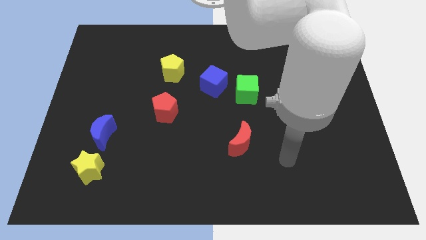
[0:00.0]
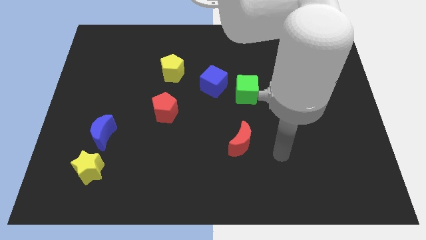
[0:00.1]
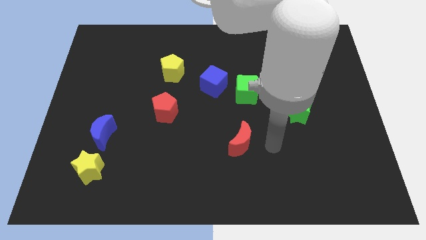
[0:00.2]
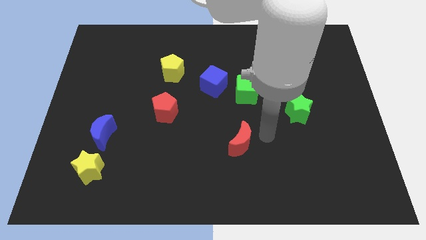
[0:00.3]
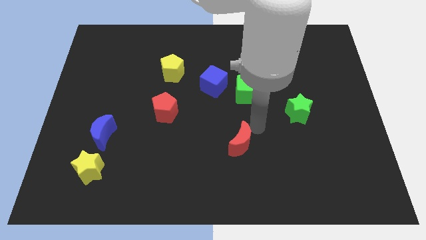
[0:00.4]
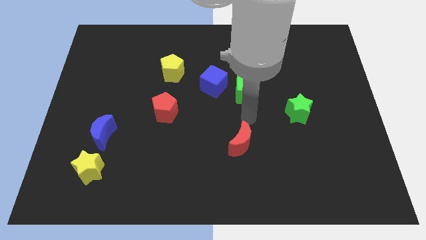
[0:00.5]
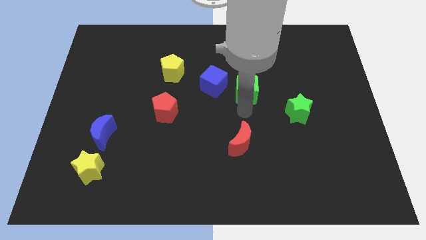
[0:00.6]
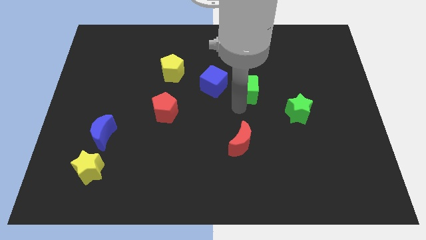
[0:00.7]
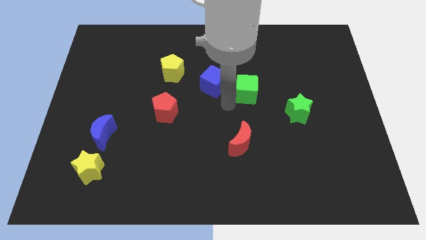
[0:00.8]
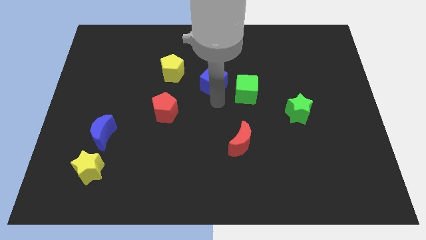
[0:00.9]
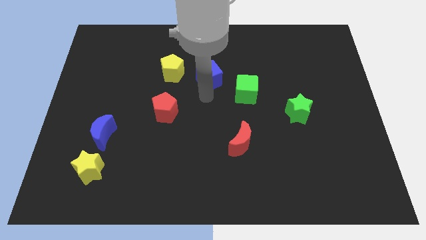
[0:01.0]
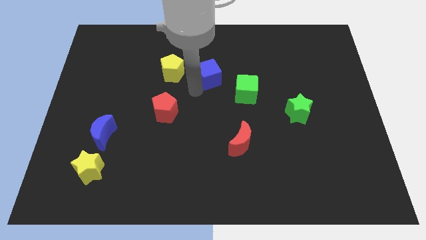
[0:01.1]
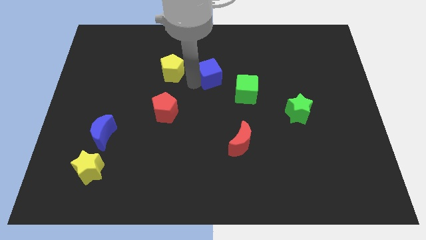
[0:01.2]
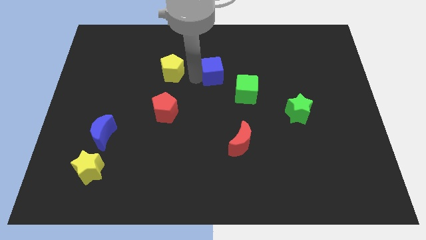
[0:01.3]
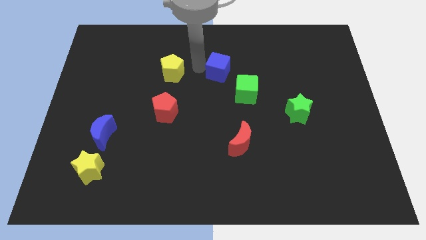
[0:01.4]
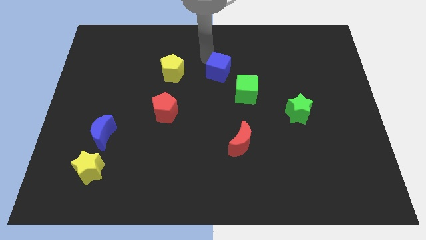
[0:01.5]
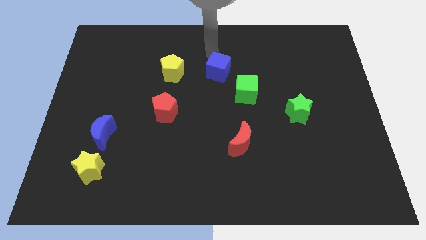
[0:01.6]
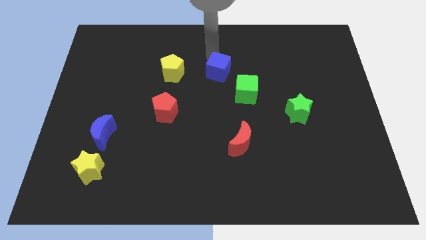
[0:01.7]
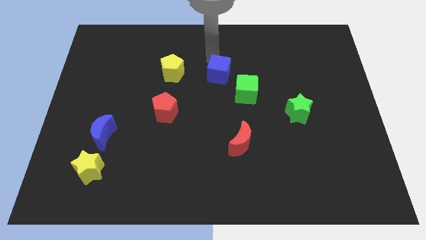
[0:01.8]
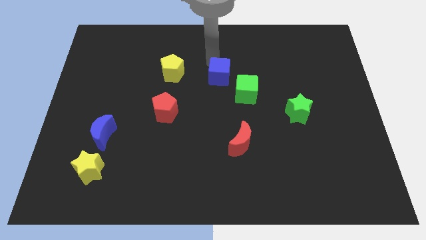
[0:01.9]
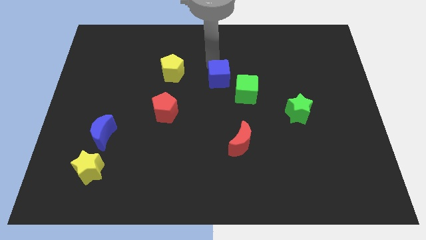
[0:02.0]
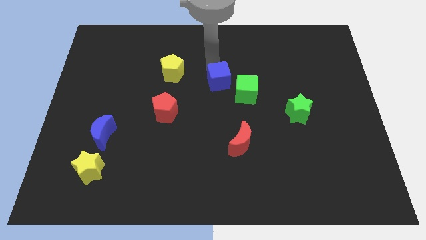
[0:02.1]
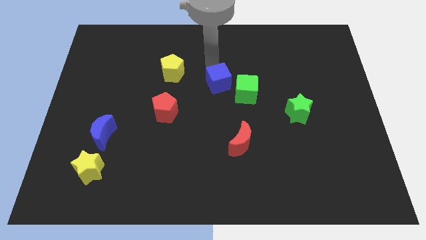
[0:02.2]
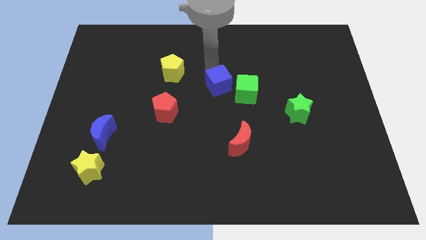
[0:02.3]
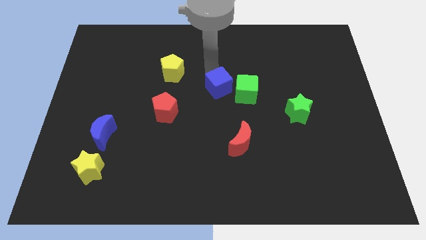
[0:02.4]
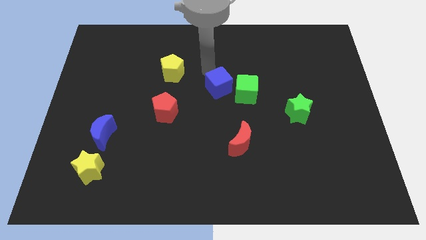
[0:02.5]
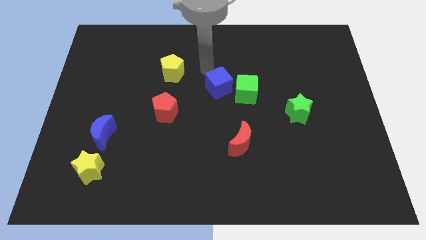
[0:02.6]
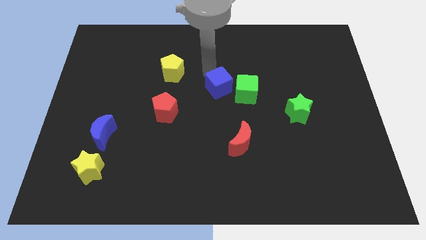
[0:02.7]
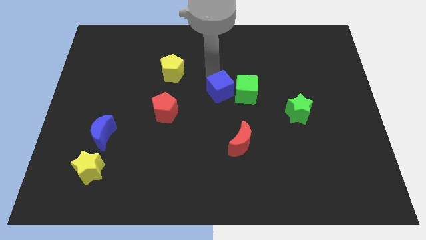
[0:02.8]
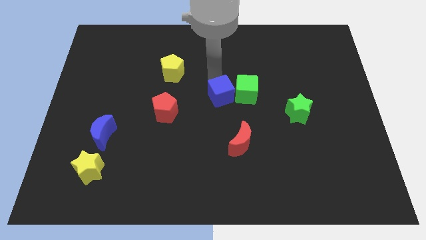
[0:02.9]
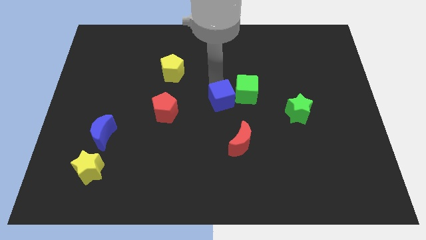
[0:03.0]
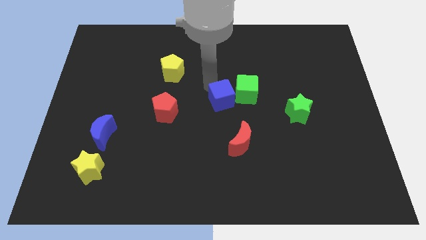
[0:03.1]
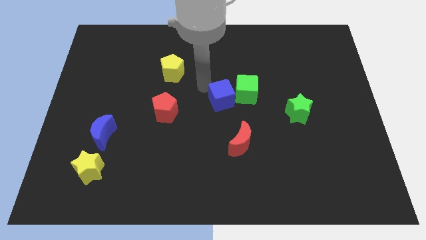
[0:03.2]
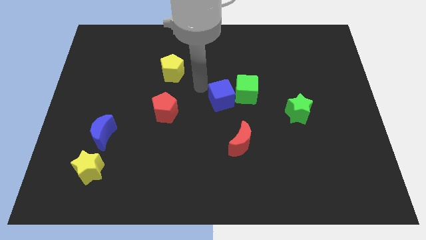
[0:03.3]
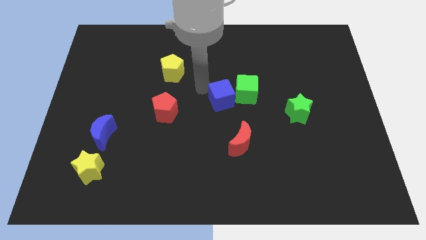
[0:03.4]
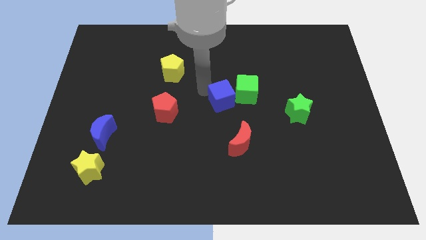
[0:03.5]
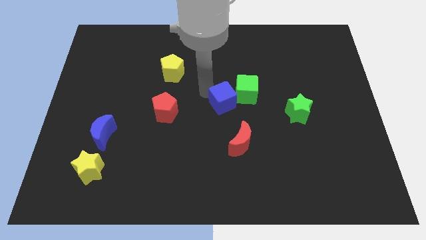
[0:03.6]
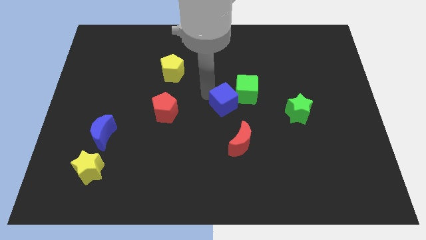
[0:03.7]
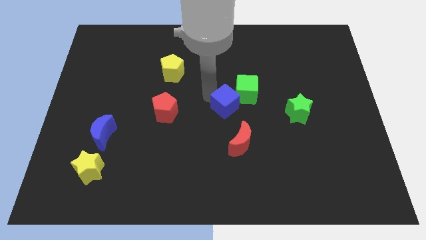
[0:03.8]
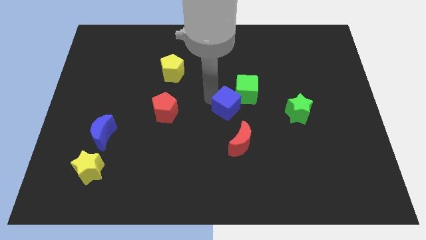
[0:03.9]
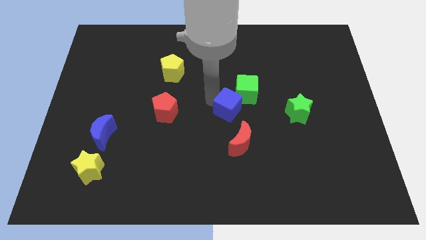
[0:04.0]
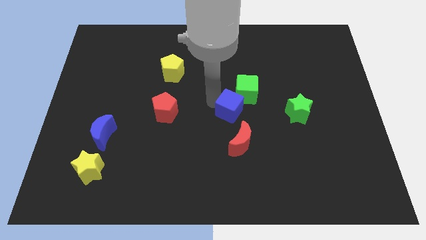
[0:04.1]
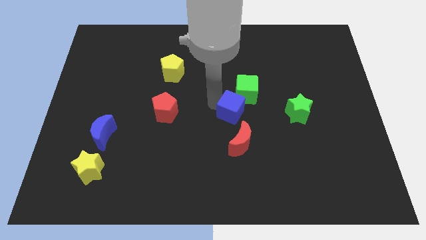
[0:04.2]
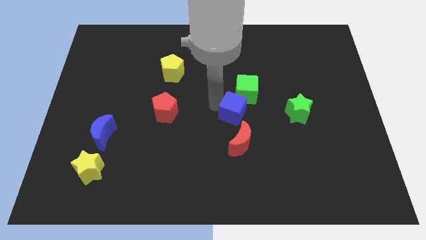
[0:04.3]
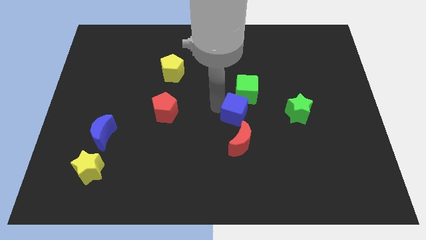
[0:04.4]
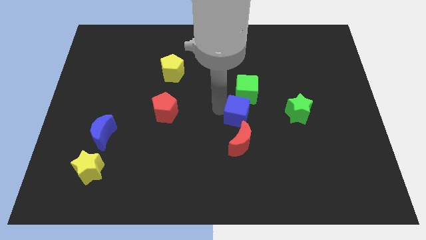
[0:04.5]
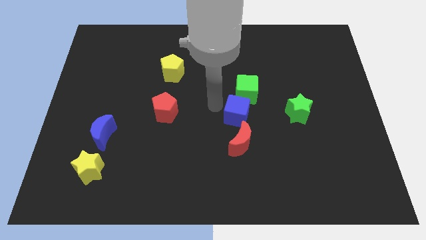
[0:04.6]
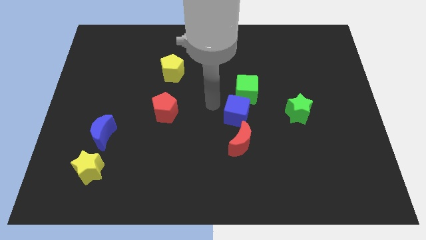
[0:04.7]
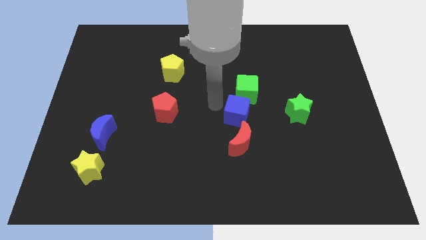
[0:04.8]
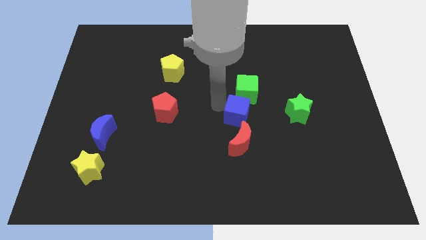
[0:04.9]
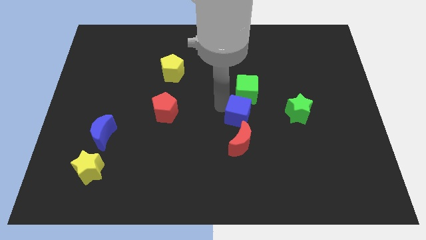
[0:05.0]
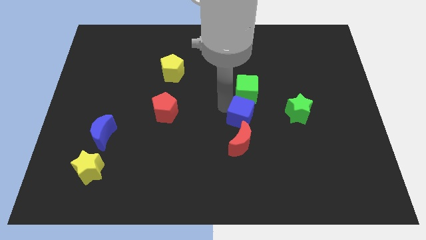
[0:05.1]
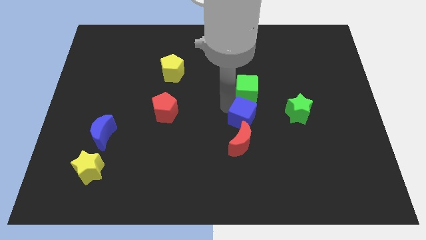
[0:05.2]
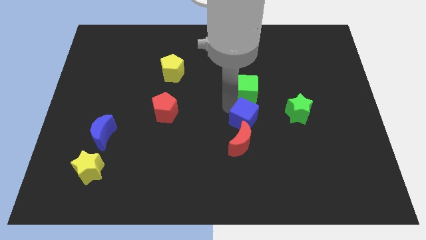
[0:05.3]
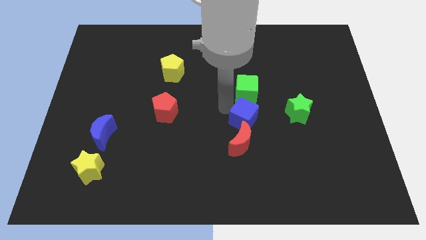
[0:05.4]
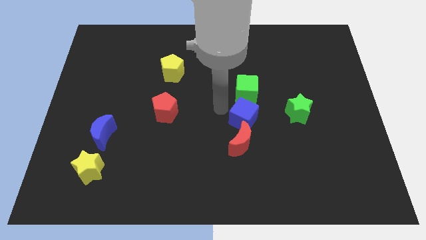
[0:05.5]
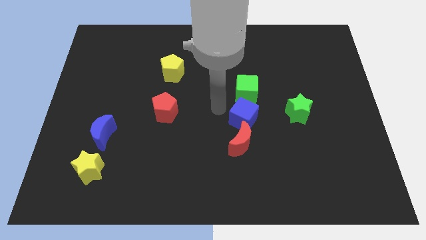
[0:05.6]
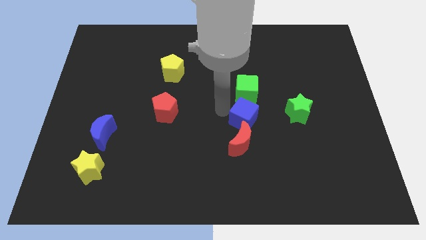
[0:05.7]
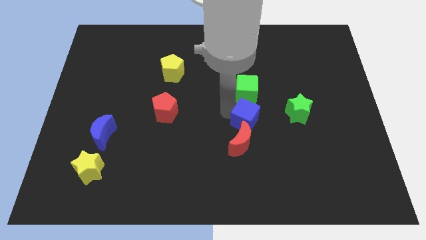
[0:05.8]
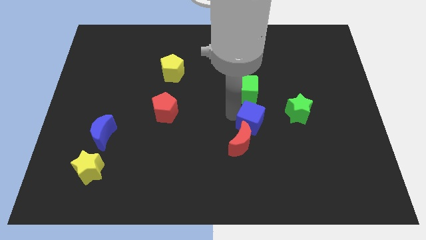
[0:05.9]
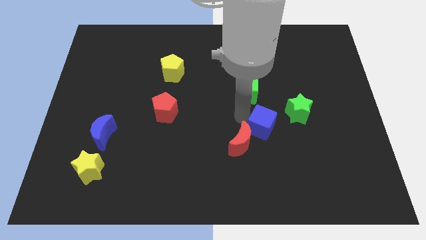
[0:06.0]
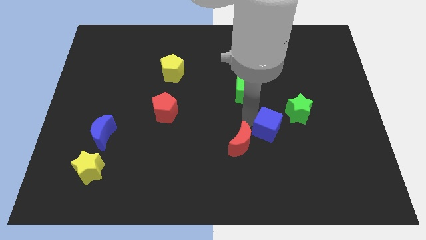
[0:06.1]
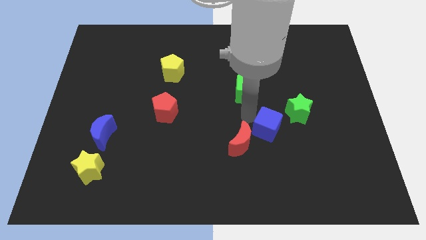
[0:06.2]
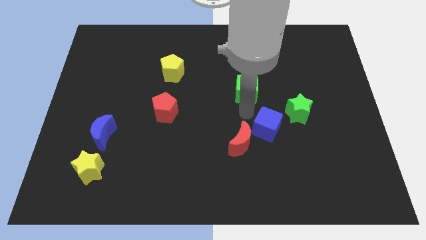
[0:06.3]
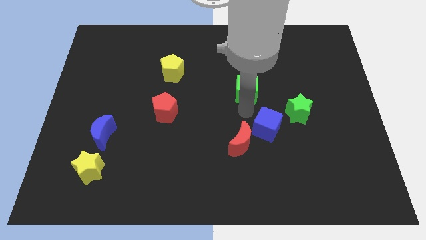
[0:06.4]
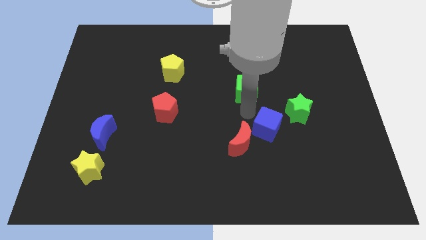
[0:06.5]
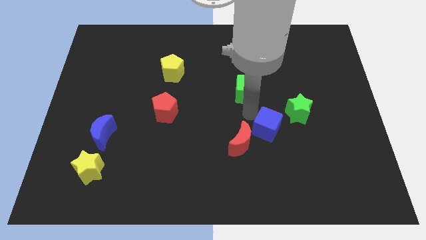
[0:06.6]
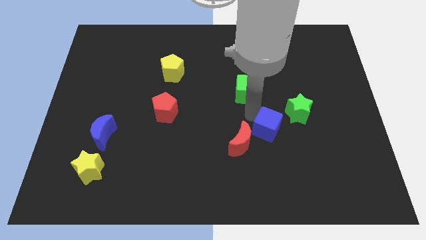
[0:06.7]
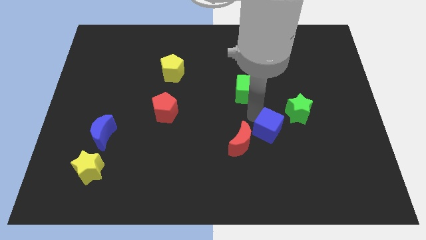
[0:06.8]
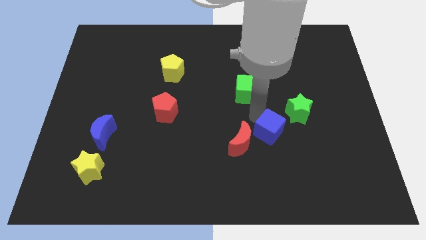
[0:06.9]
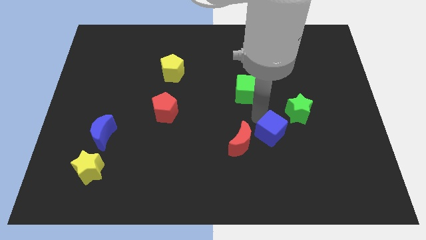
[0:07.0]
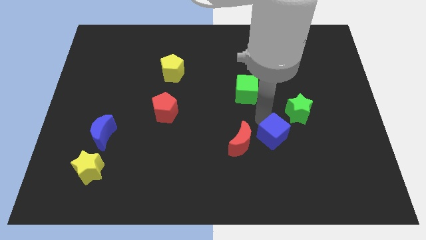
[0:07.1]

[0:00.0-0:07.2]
move the blue cube downwards and to the right

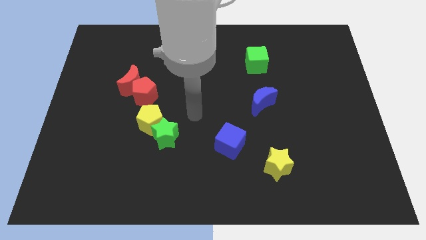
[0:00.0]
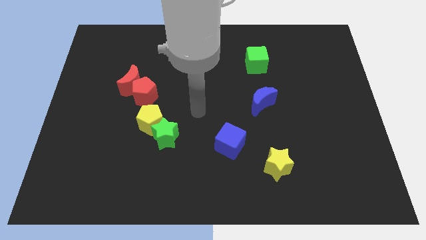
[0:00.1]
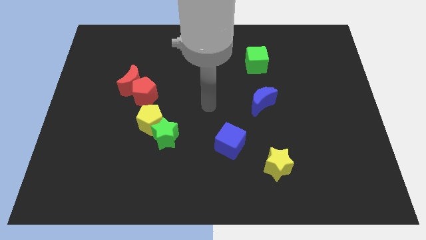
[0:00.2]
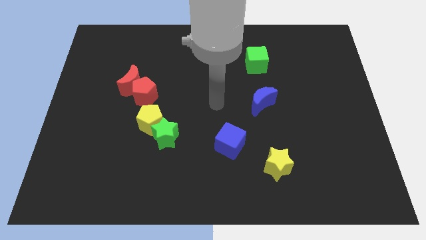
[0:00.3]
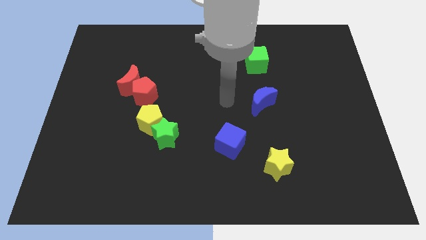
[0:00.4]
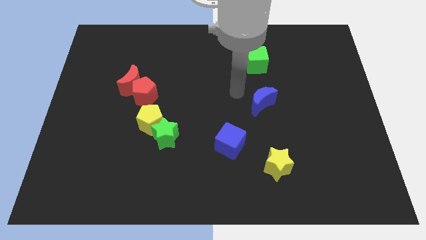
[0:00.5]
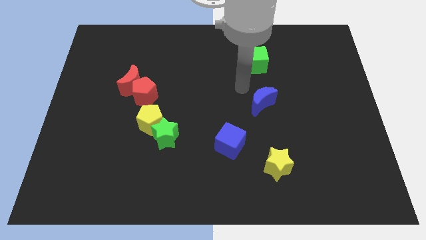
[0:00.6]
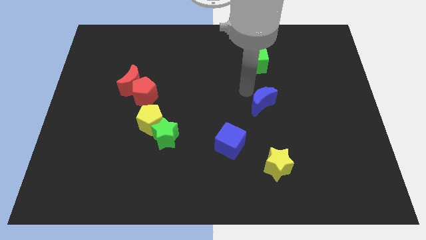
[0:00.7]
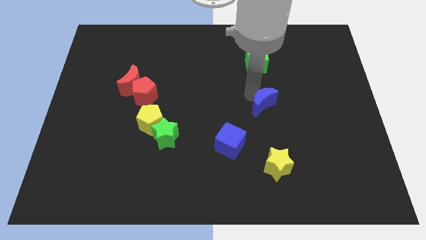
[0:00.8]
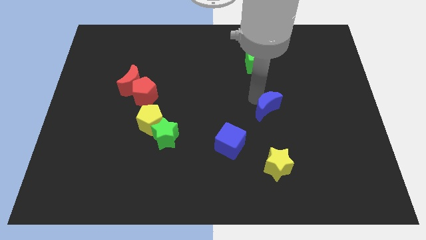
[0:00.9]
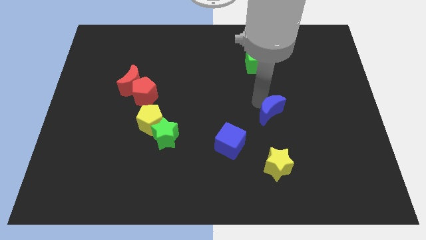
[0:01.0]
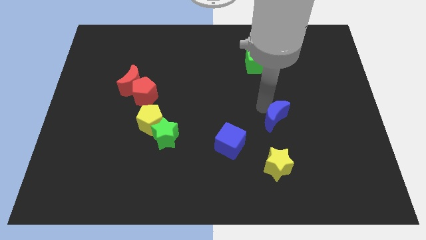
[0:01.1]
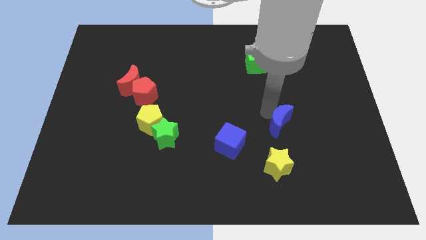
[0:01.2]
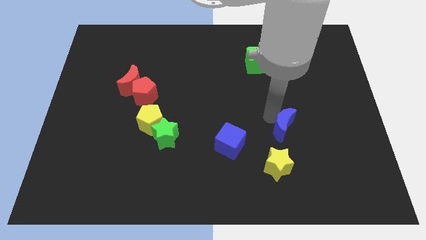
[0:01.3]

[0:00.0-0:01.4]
move the blue moon downwards and right slightly
